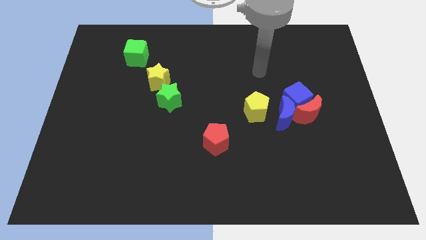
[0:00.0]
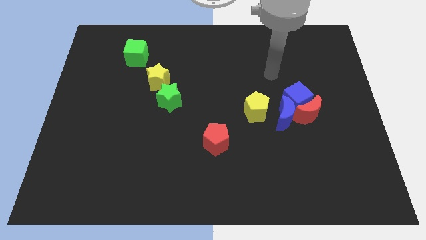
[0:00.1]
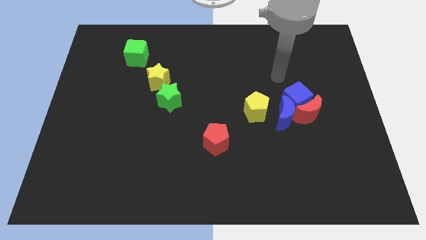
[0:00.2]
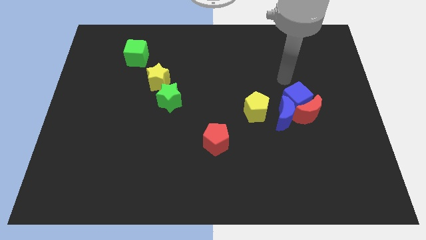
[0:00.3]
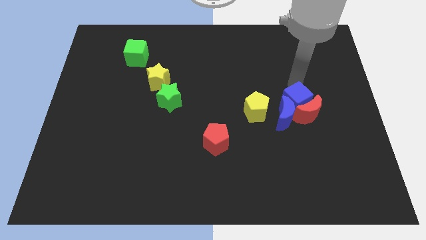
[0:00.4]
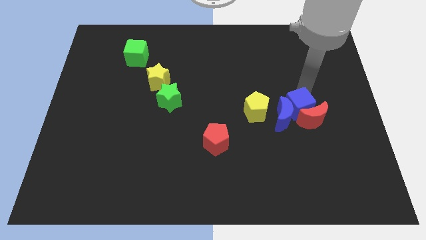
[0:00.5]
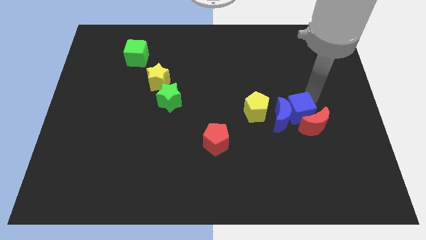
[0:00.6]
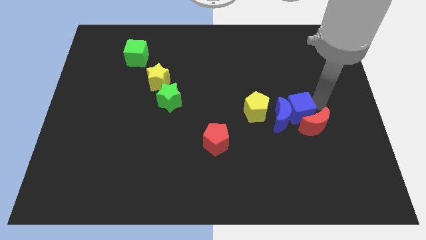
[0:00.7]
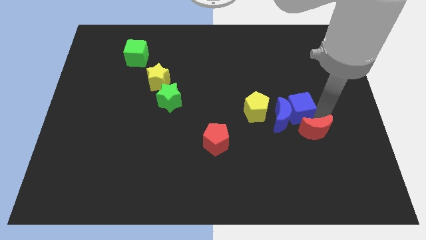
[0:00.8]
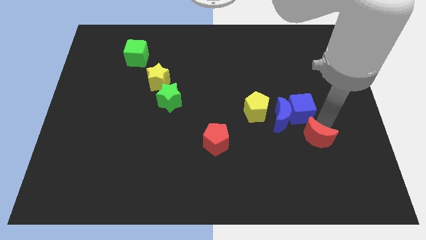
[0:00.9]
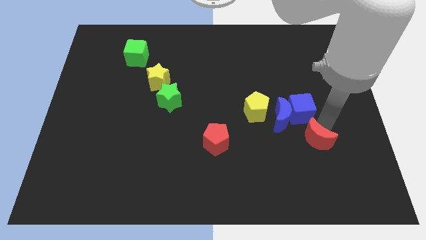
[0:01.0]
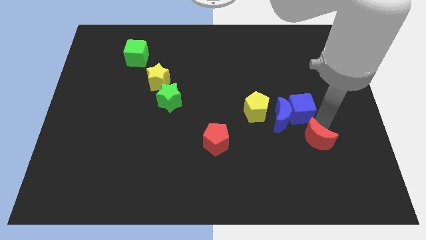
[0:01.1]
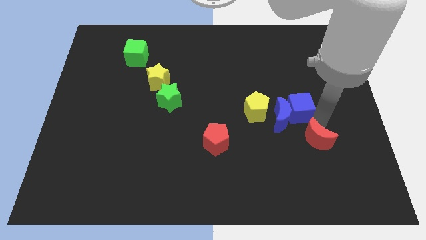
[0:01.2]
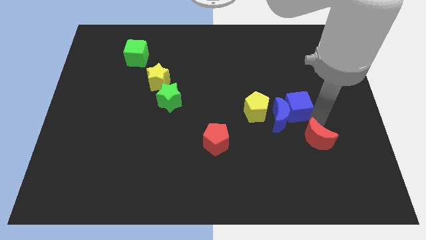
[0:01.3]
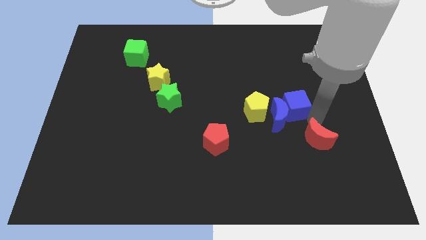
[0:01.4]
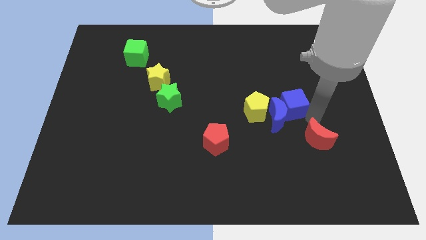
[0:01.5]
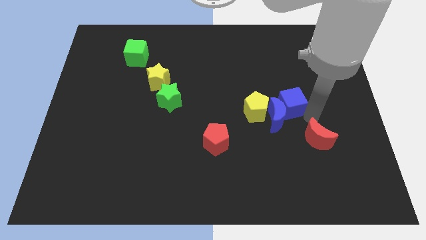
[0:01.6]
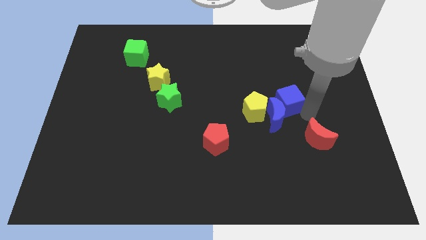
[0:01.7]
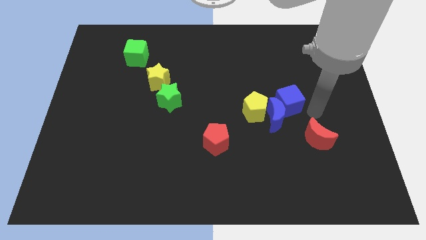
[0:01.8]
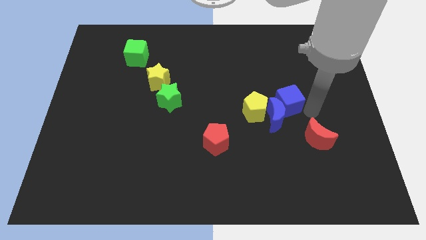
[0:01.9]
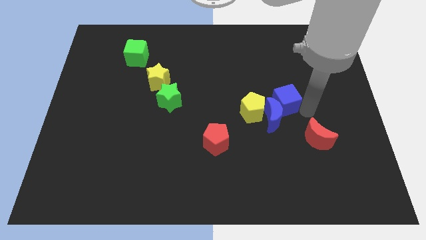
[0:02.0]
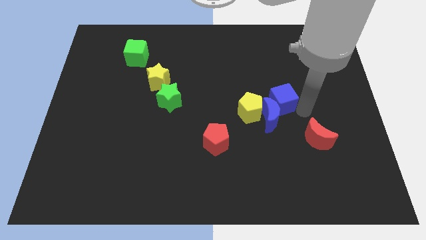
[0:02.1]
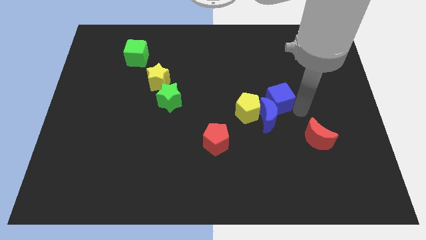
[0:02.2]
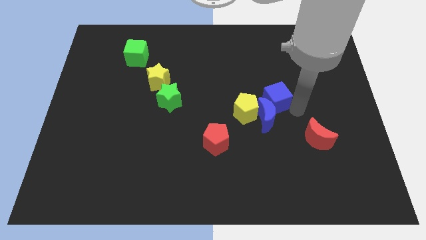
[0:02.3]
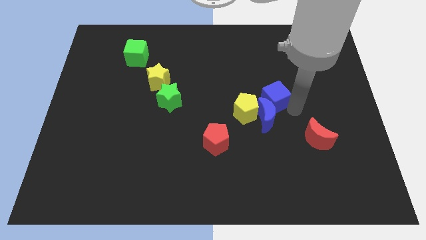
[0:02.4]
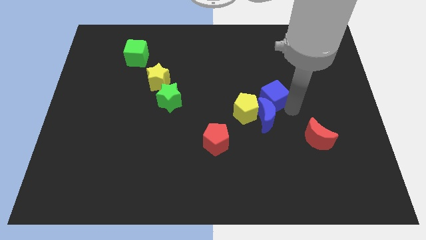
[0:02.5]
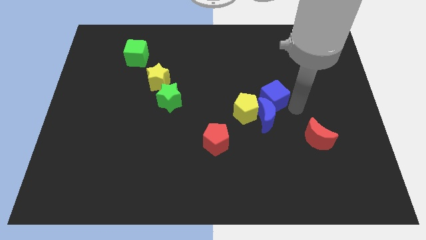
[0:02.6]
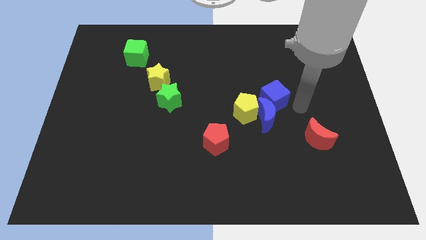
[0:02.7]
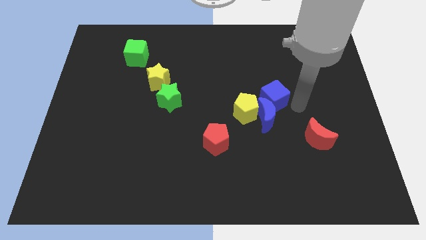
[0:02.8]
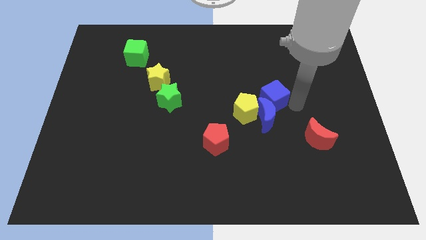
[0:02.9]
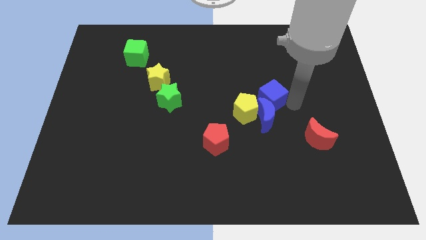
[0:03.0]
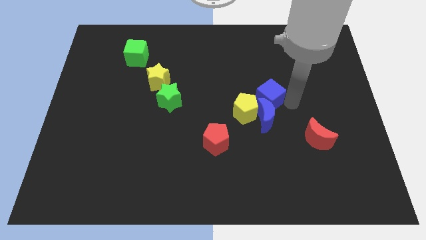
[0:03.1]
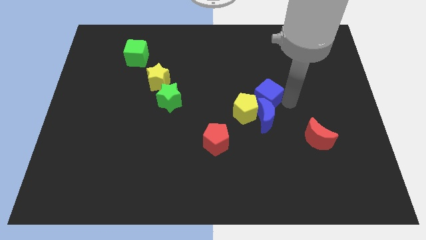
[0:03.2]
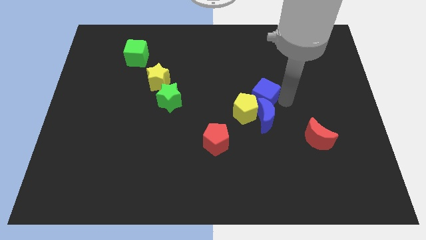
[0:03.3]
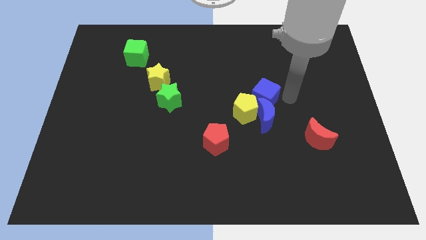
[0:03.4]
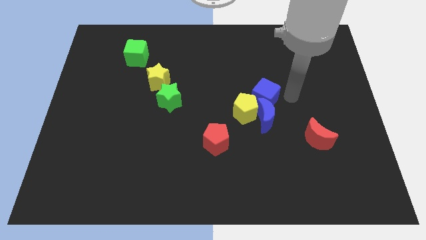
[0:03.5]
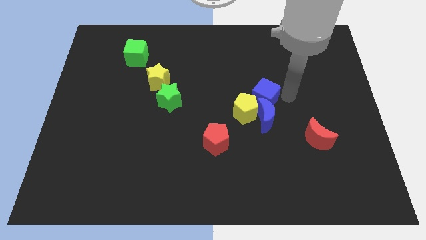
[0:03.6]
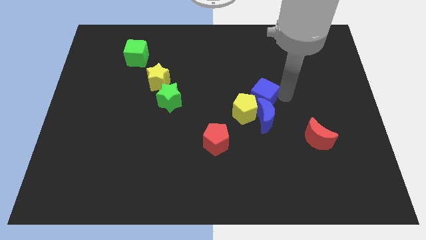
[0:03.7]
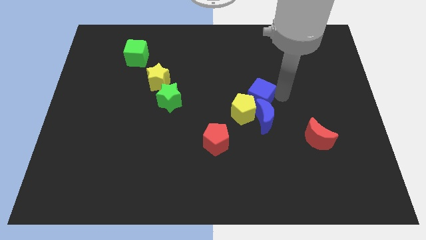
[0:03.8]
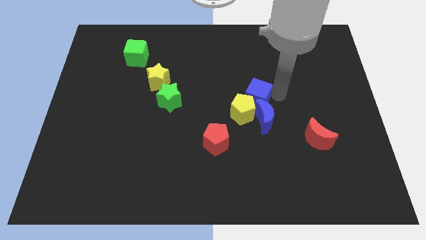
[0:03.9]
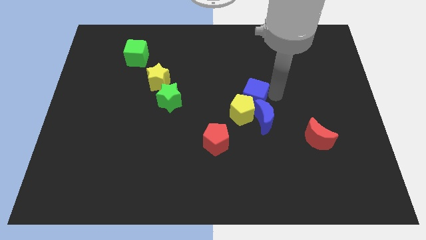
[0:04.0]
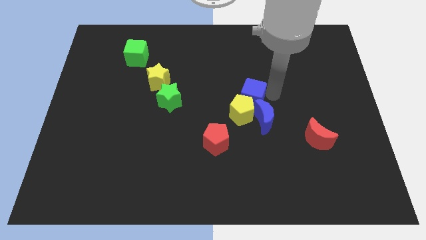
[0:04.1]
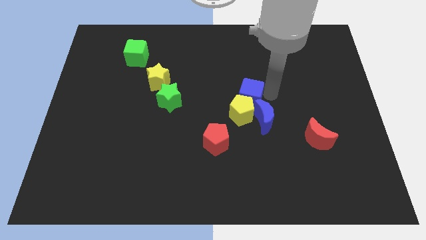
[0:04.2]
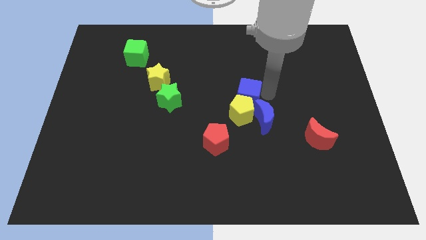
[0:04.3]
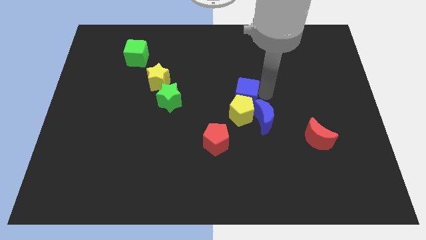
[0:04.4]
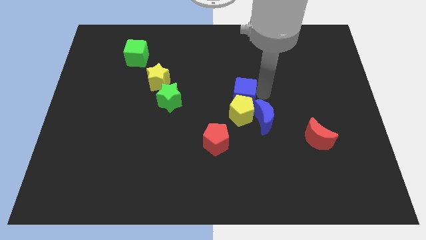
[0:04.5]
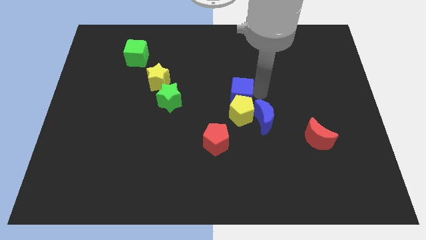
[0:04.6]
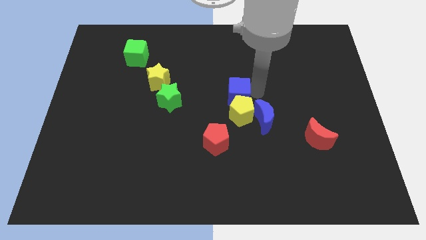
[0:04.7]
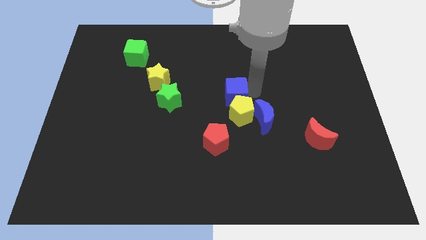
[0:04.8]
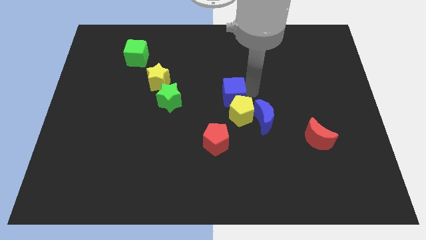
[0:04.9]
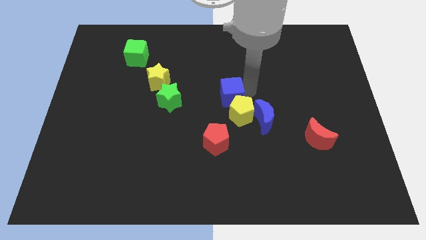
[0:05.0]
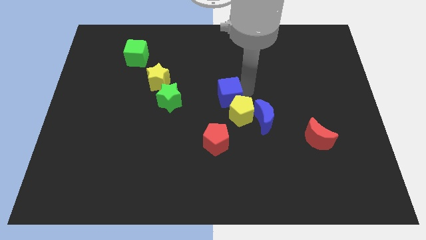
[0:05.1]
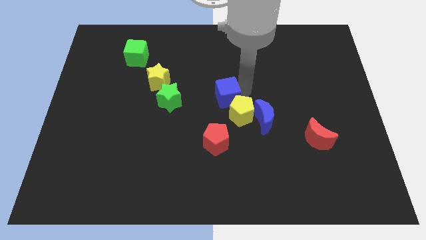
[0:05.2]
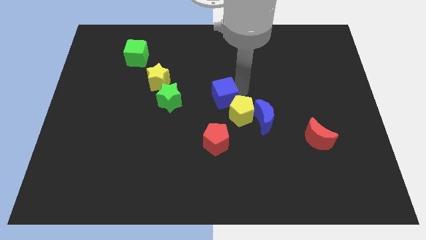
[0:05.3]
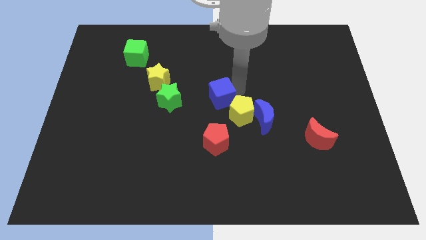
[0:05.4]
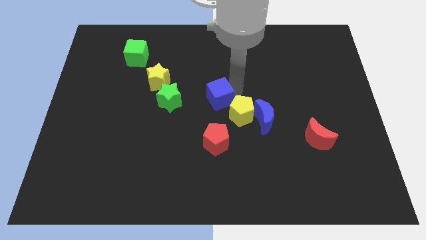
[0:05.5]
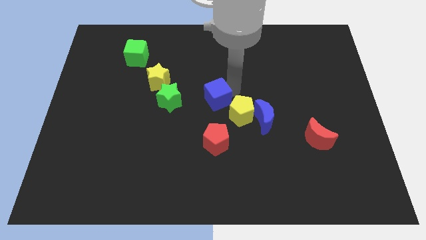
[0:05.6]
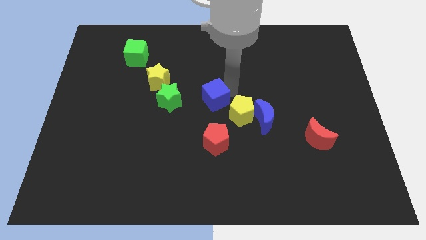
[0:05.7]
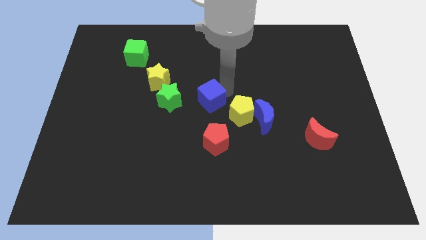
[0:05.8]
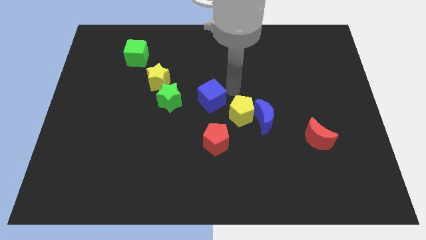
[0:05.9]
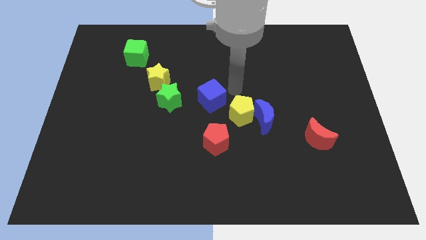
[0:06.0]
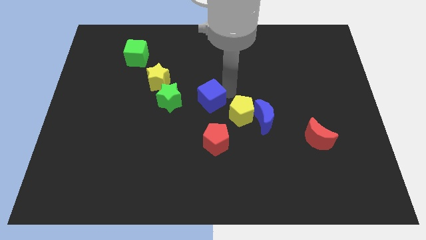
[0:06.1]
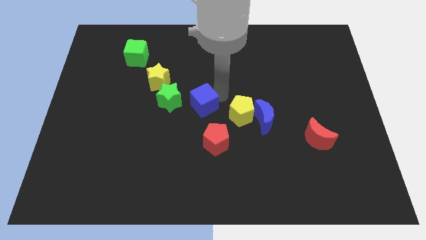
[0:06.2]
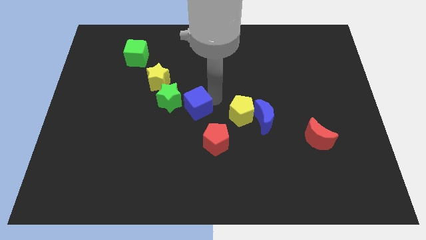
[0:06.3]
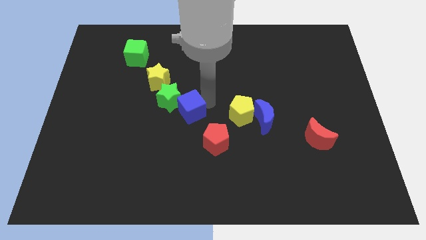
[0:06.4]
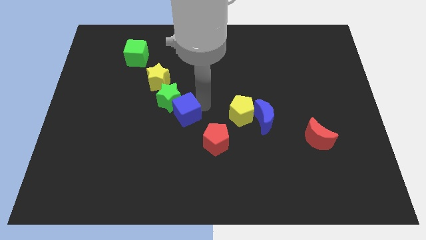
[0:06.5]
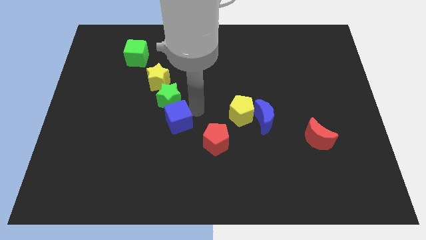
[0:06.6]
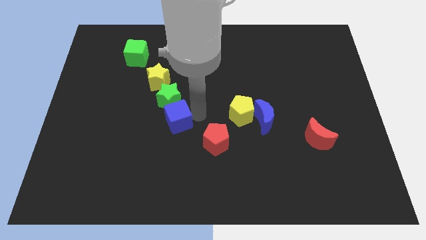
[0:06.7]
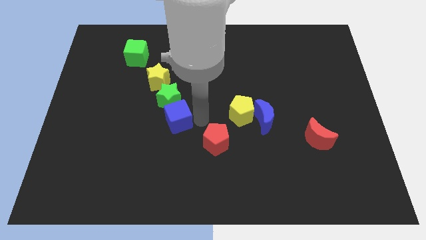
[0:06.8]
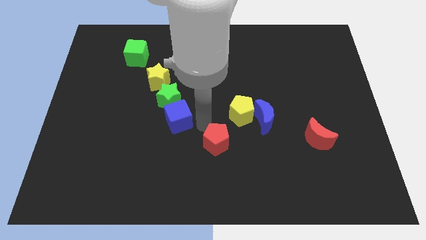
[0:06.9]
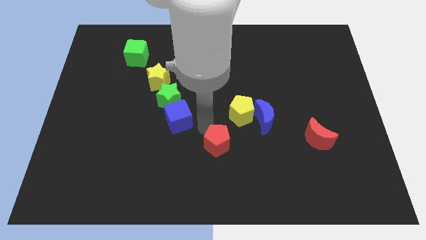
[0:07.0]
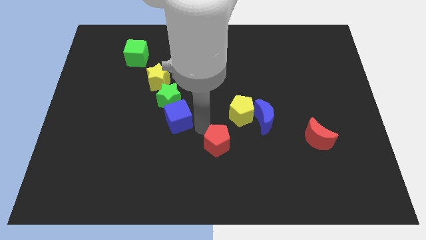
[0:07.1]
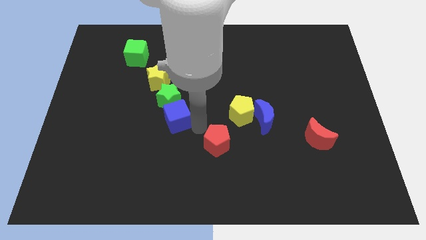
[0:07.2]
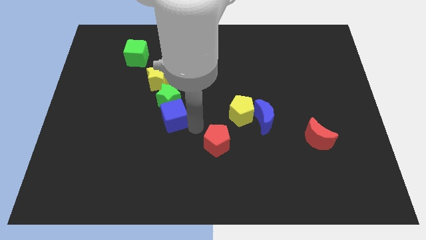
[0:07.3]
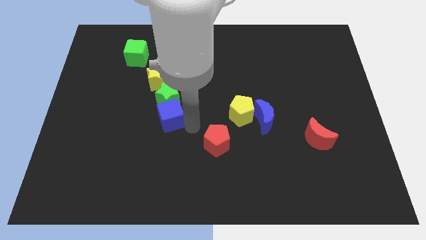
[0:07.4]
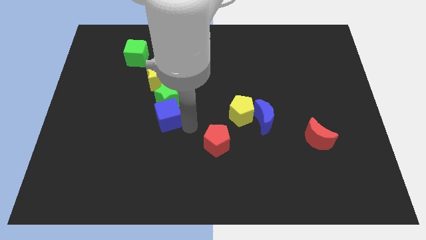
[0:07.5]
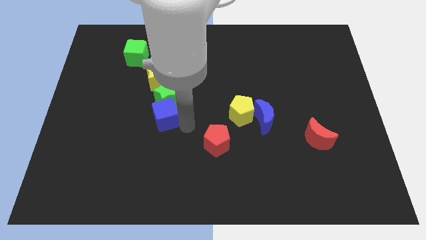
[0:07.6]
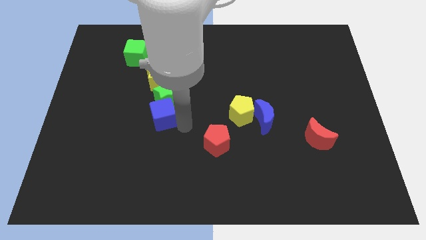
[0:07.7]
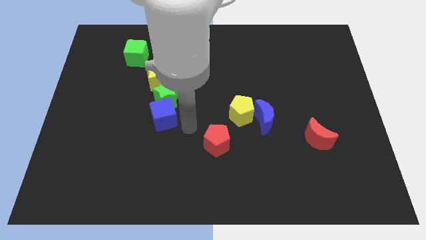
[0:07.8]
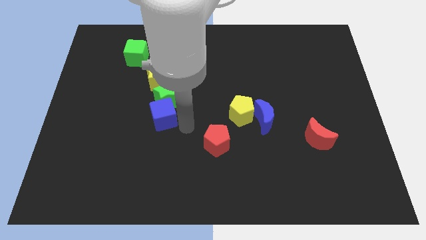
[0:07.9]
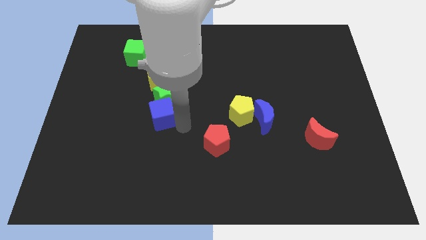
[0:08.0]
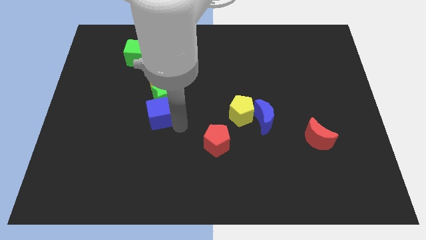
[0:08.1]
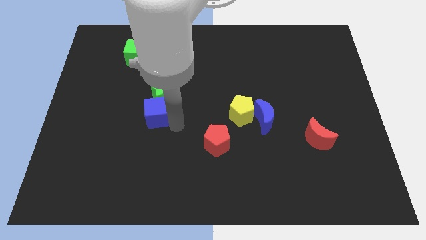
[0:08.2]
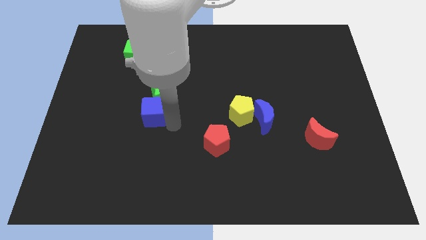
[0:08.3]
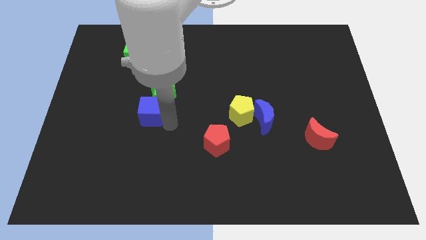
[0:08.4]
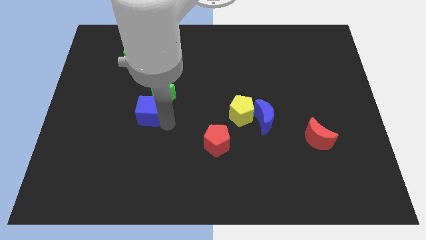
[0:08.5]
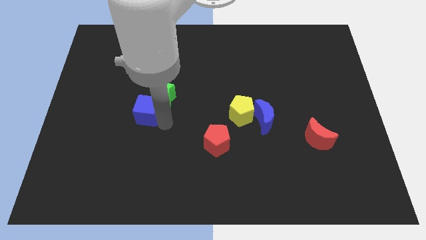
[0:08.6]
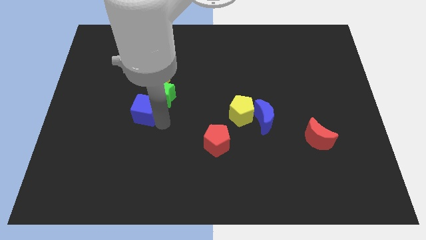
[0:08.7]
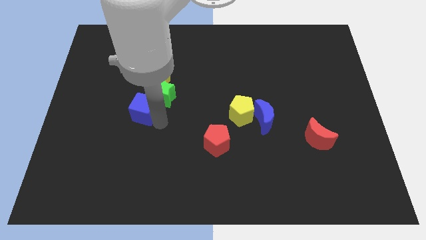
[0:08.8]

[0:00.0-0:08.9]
put the blue cube just left of the green star
